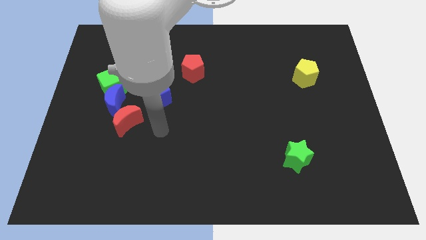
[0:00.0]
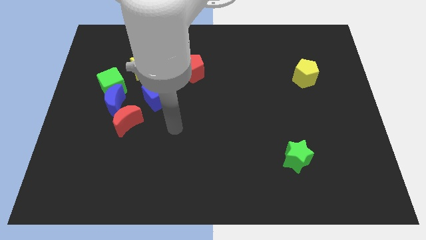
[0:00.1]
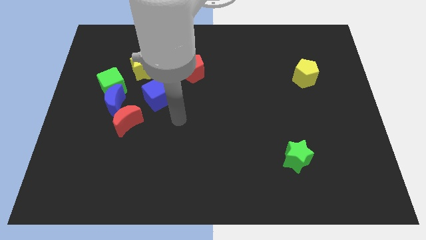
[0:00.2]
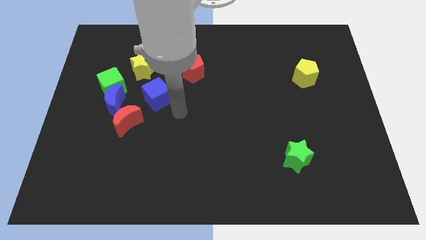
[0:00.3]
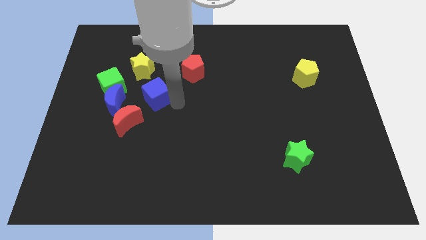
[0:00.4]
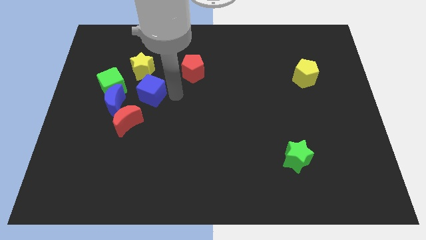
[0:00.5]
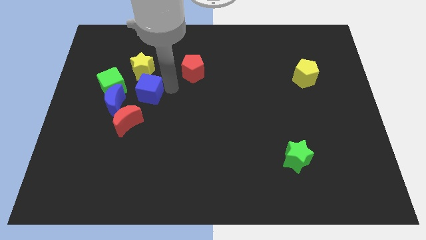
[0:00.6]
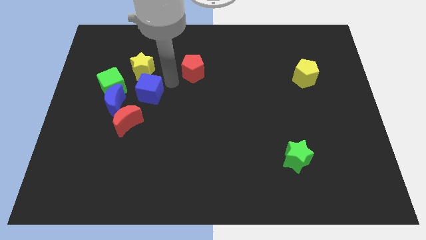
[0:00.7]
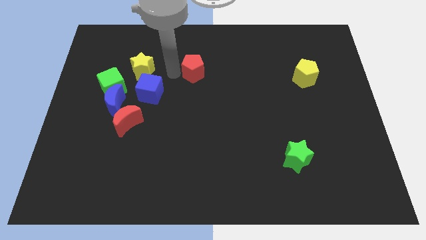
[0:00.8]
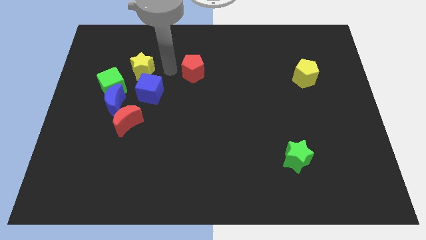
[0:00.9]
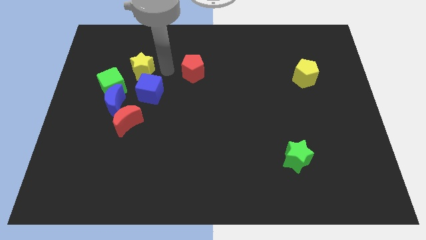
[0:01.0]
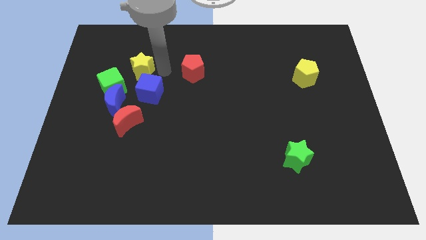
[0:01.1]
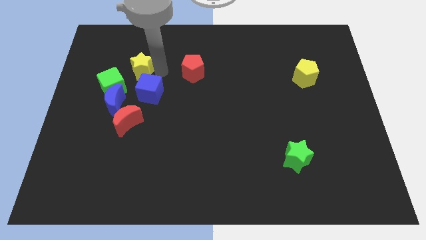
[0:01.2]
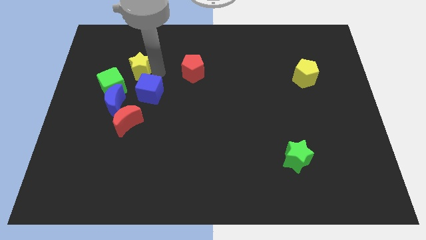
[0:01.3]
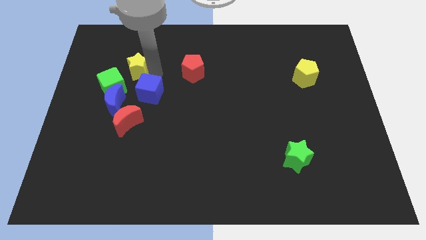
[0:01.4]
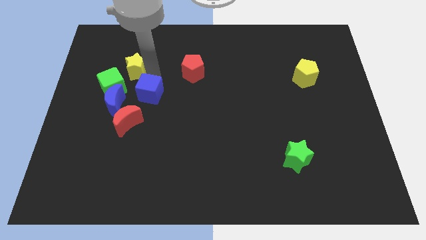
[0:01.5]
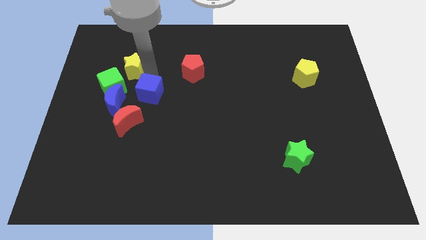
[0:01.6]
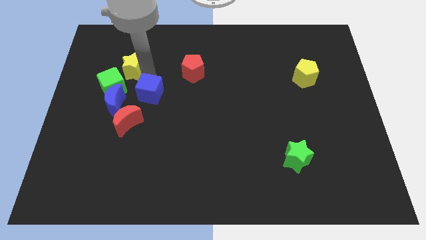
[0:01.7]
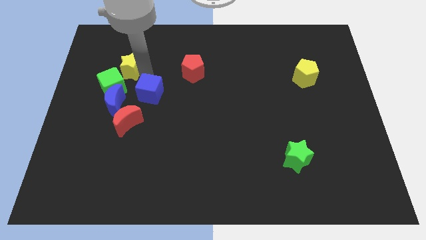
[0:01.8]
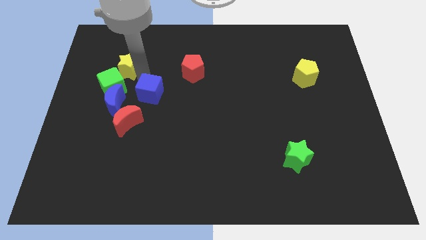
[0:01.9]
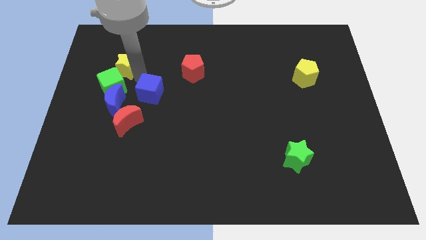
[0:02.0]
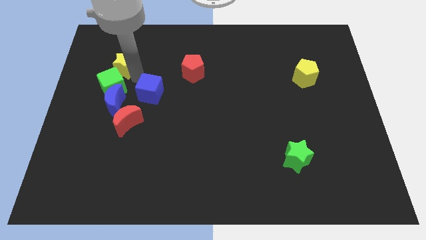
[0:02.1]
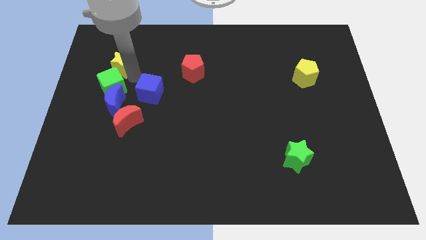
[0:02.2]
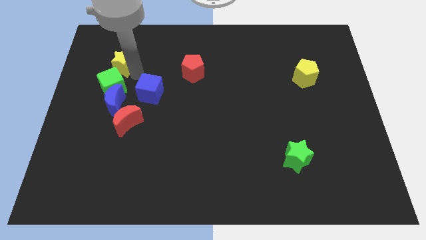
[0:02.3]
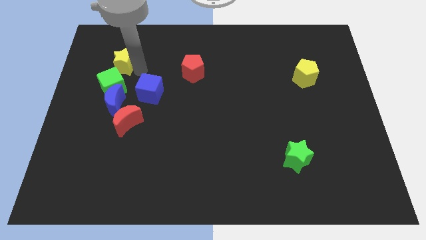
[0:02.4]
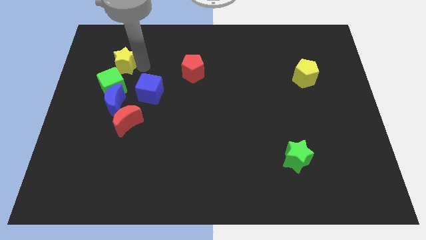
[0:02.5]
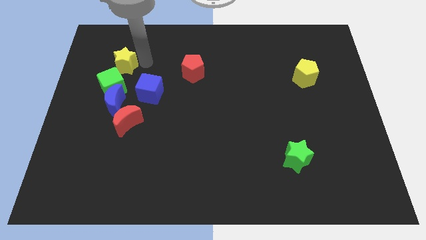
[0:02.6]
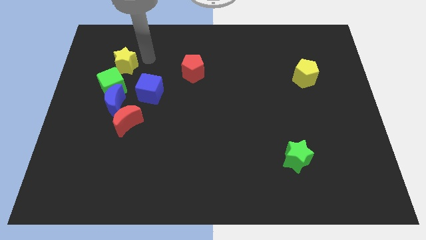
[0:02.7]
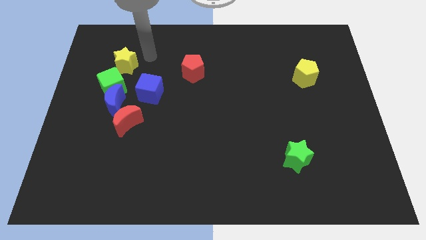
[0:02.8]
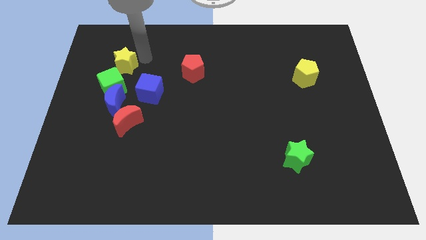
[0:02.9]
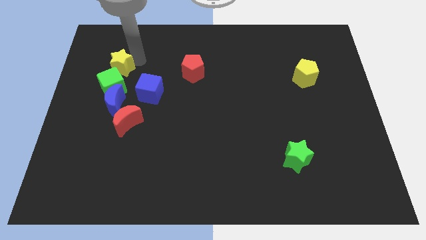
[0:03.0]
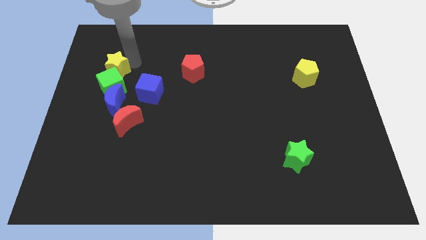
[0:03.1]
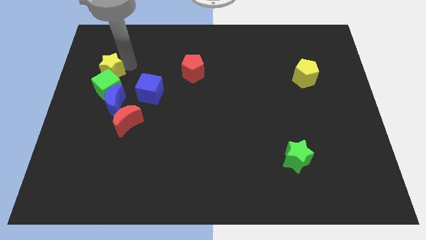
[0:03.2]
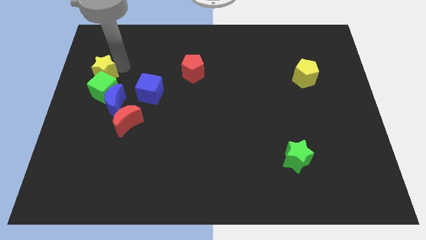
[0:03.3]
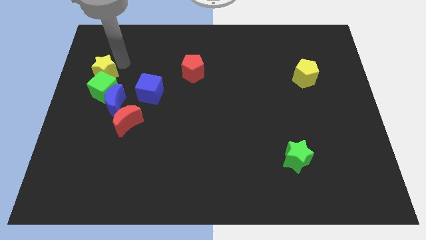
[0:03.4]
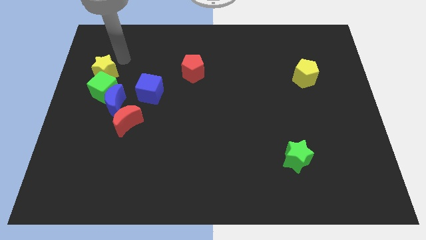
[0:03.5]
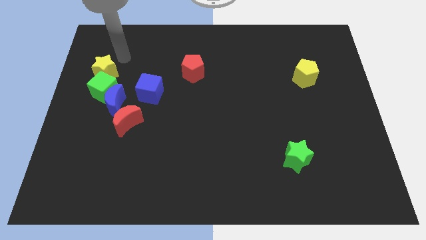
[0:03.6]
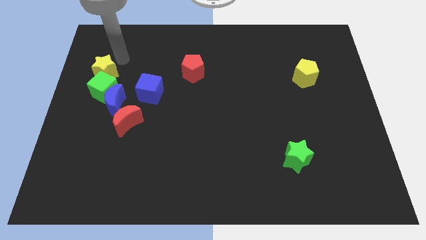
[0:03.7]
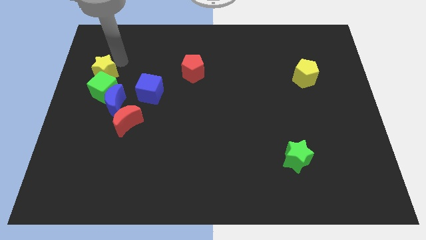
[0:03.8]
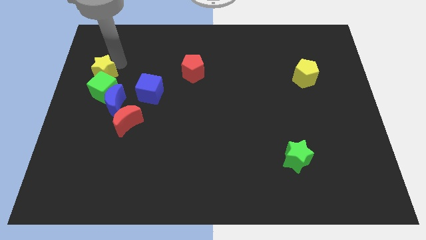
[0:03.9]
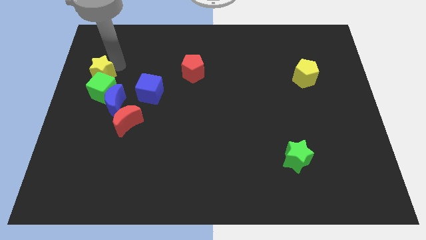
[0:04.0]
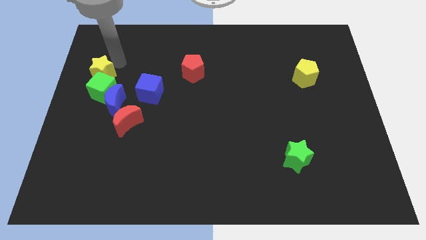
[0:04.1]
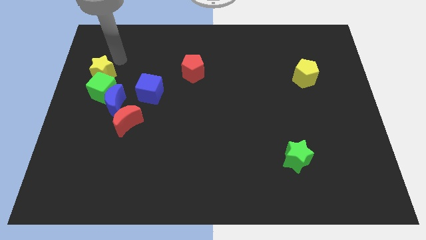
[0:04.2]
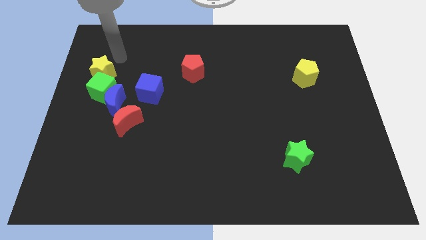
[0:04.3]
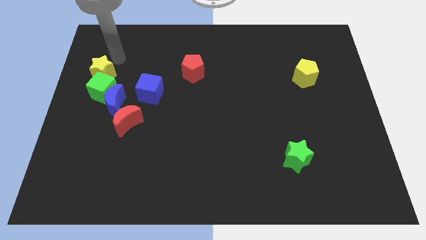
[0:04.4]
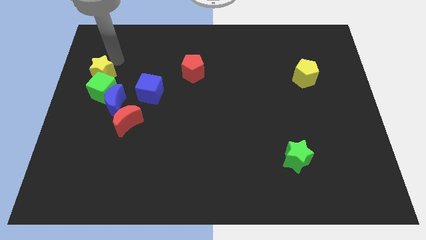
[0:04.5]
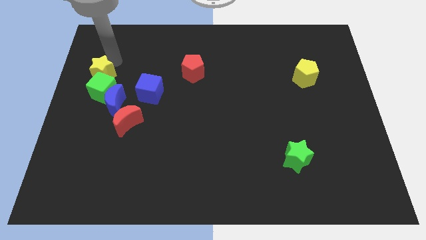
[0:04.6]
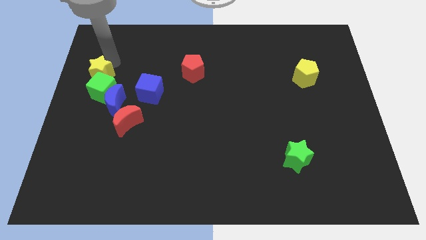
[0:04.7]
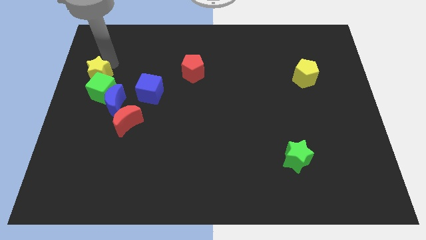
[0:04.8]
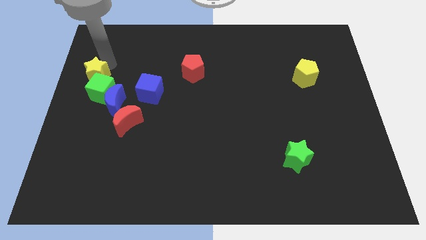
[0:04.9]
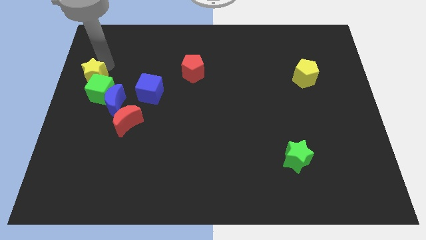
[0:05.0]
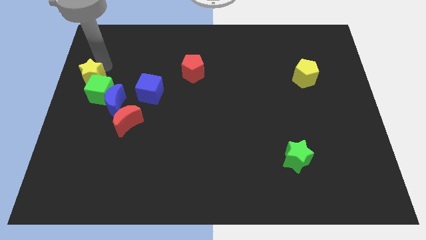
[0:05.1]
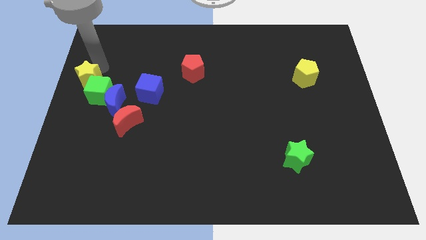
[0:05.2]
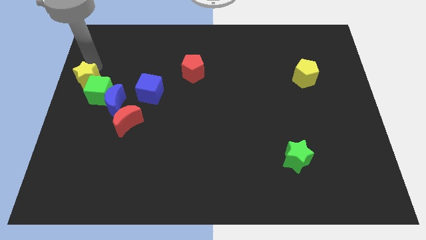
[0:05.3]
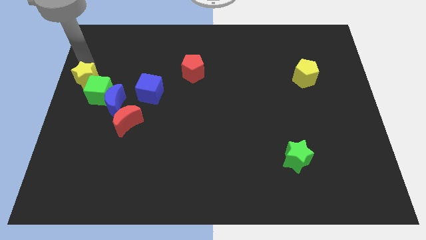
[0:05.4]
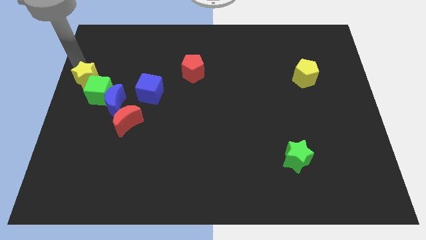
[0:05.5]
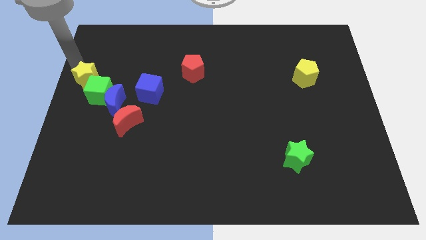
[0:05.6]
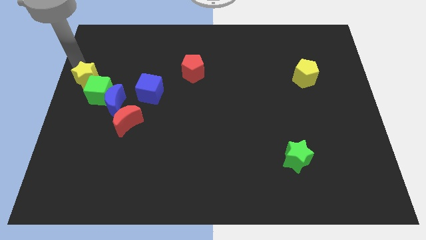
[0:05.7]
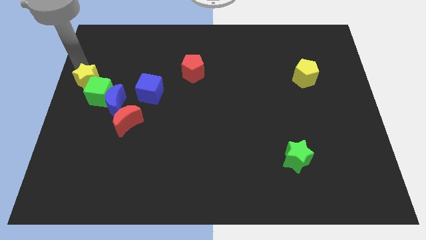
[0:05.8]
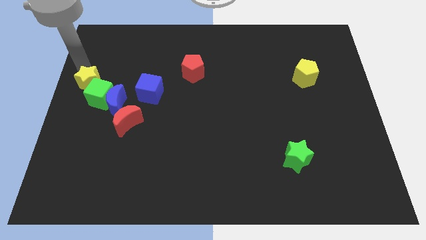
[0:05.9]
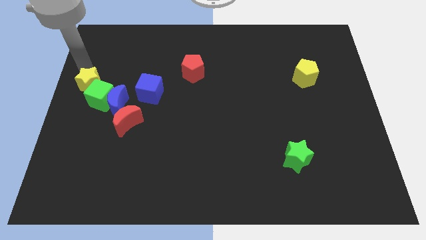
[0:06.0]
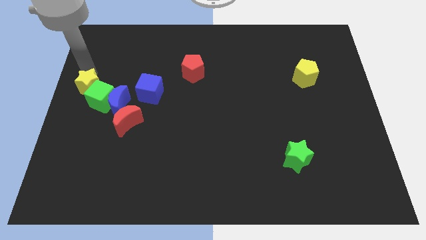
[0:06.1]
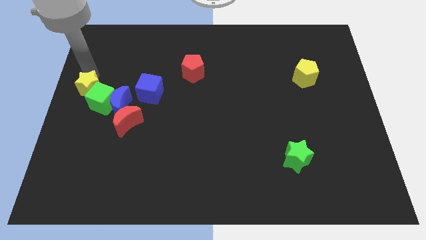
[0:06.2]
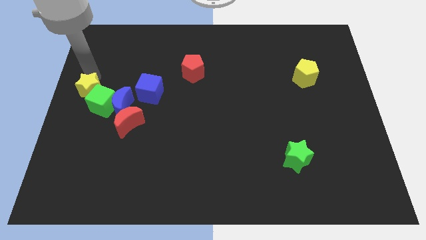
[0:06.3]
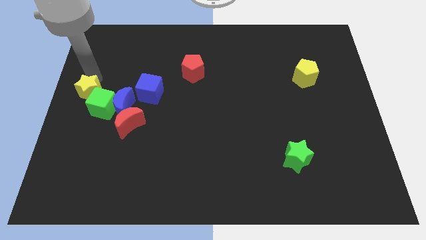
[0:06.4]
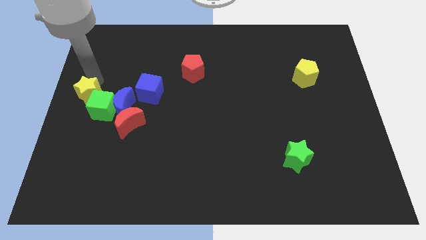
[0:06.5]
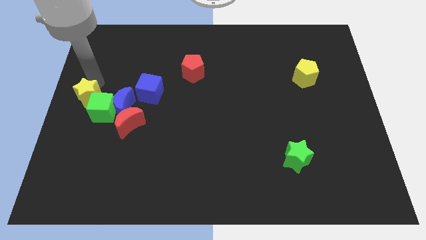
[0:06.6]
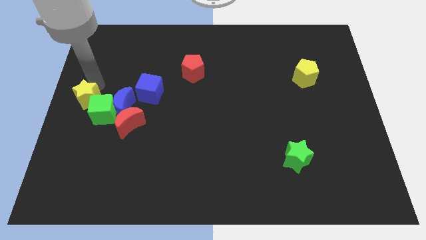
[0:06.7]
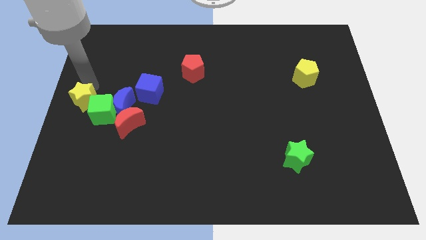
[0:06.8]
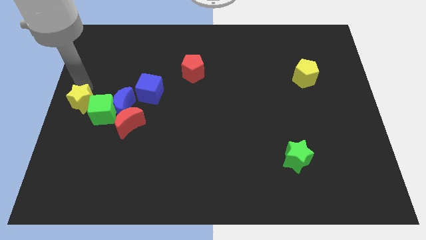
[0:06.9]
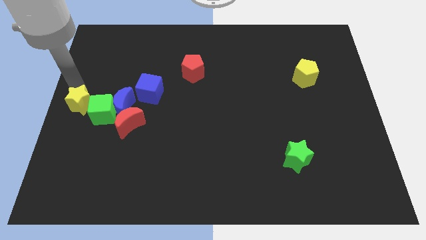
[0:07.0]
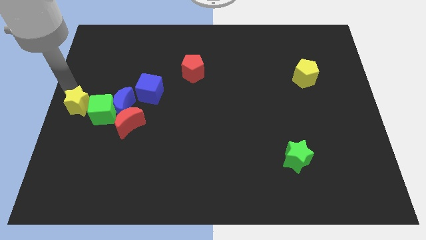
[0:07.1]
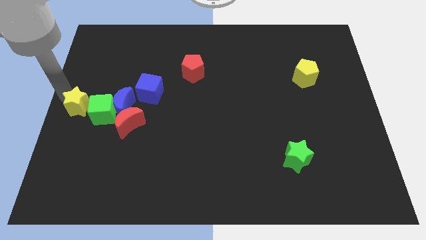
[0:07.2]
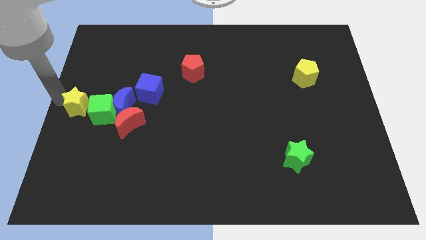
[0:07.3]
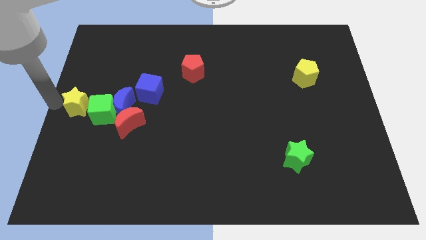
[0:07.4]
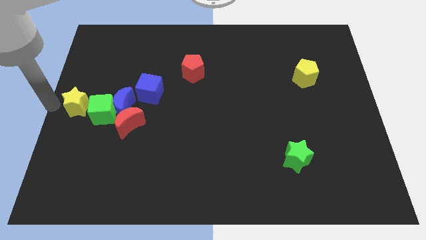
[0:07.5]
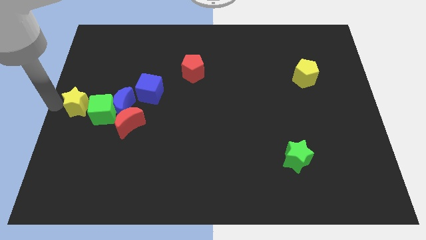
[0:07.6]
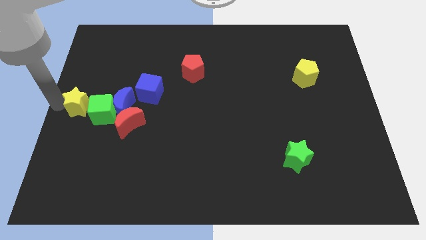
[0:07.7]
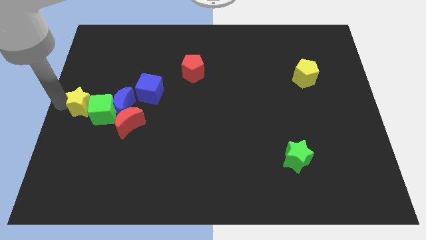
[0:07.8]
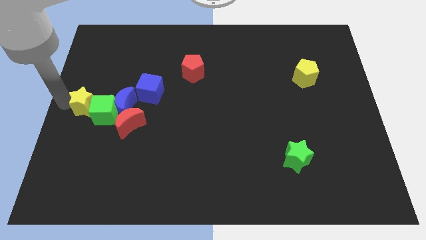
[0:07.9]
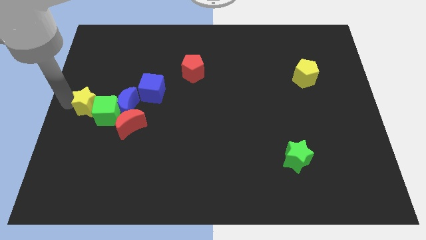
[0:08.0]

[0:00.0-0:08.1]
move the yellow star to the top left side of the red moon
